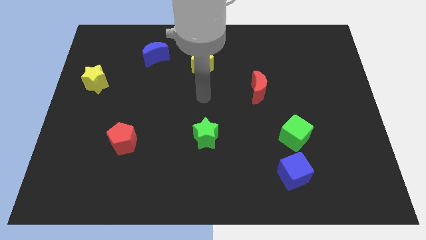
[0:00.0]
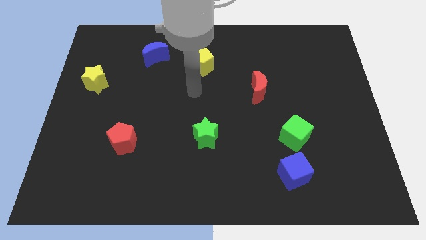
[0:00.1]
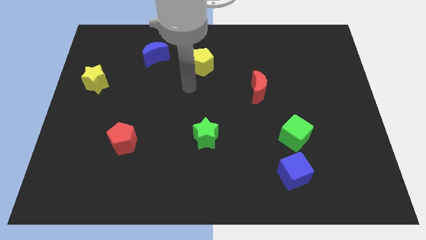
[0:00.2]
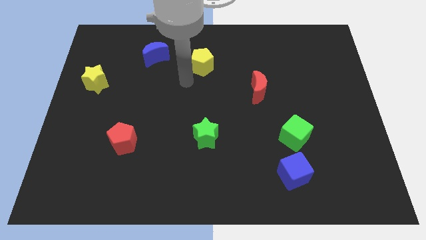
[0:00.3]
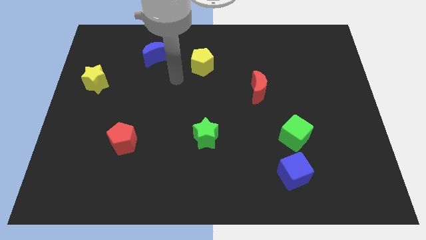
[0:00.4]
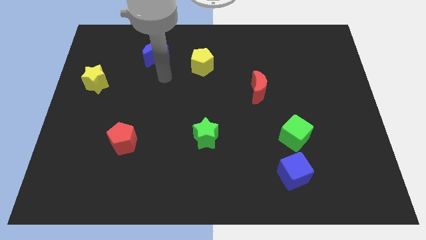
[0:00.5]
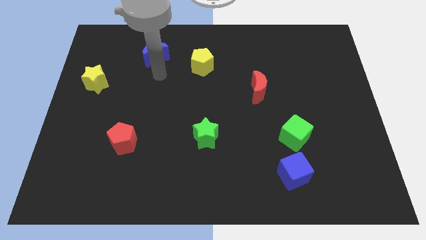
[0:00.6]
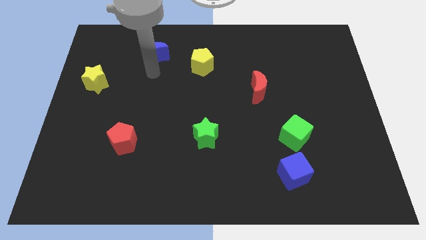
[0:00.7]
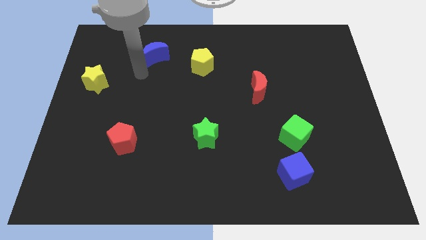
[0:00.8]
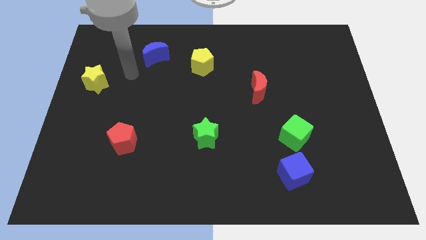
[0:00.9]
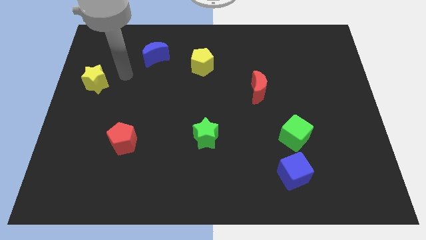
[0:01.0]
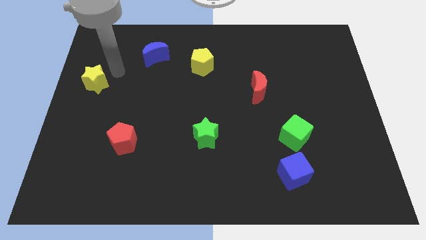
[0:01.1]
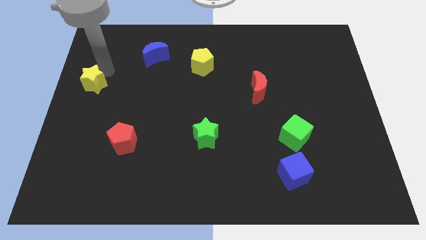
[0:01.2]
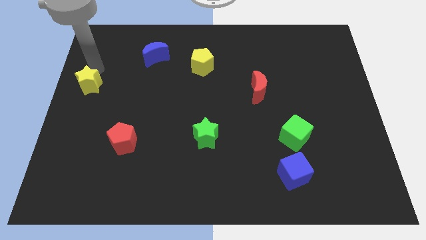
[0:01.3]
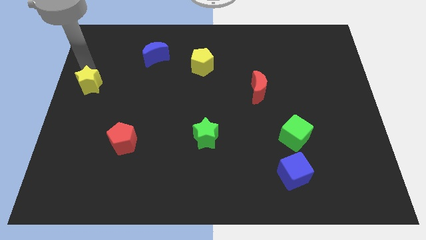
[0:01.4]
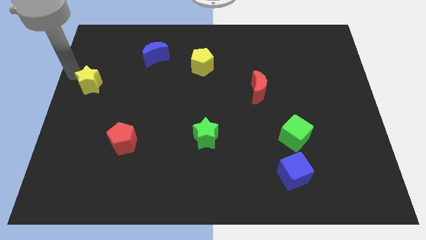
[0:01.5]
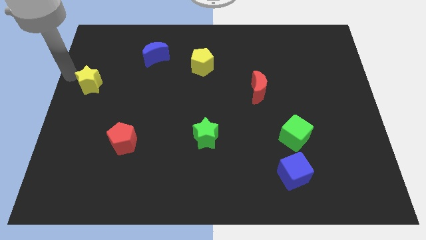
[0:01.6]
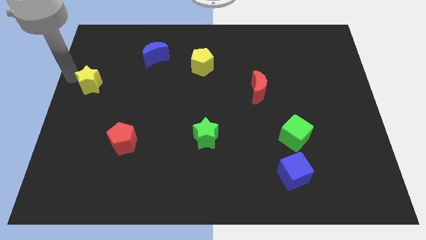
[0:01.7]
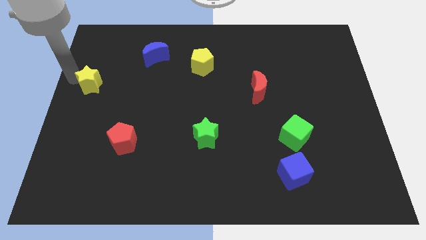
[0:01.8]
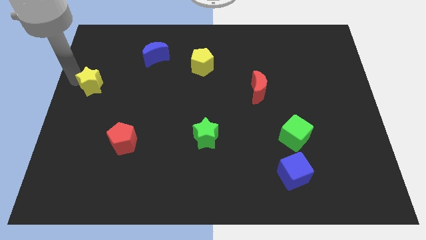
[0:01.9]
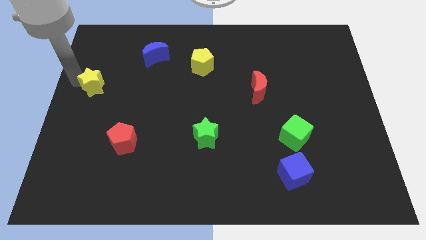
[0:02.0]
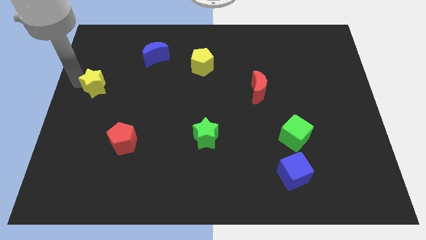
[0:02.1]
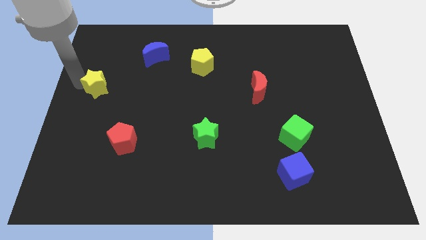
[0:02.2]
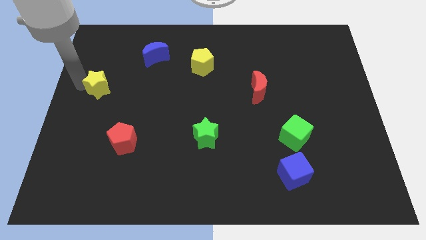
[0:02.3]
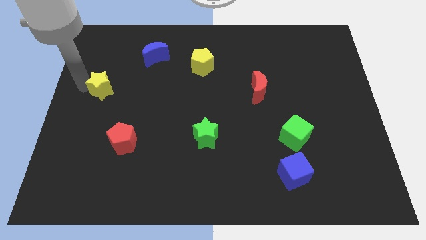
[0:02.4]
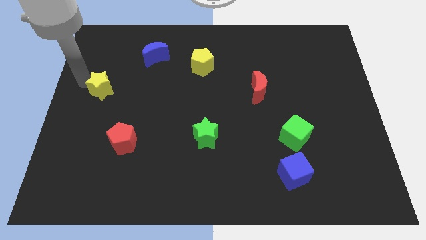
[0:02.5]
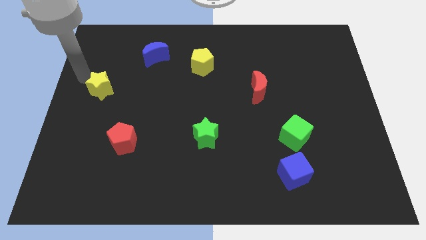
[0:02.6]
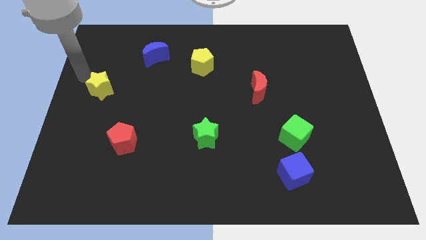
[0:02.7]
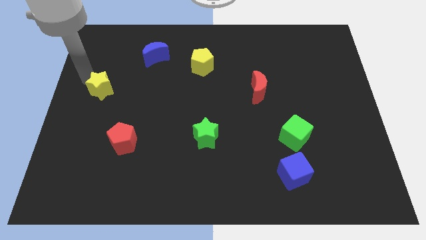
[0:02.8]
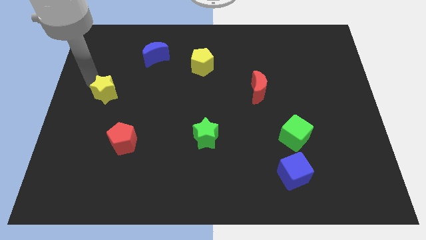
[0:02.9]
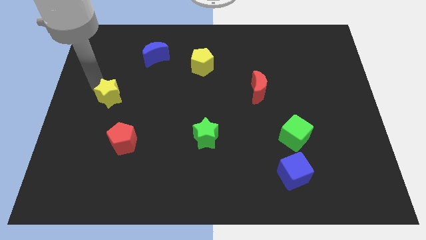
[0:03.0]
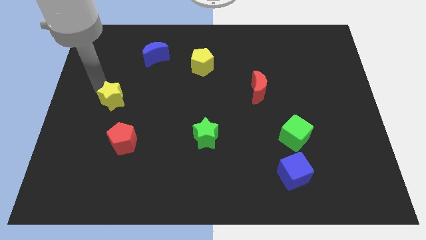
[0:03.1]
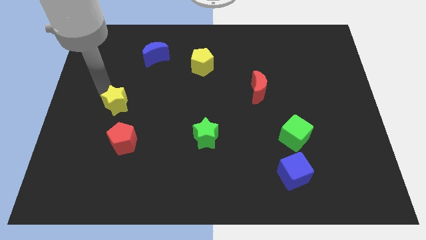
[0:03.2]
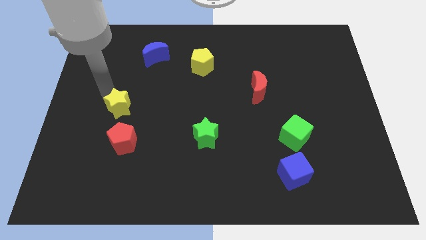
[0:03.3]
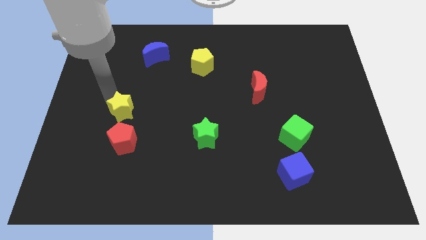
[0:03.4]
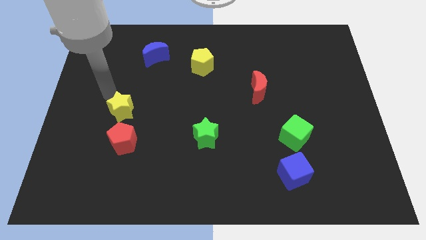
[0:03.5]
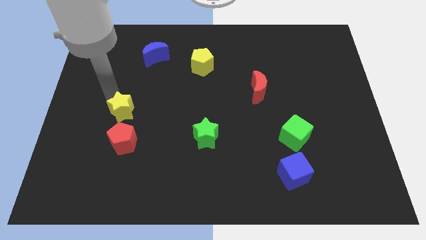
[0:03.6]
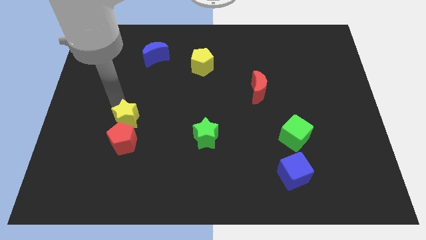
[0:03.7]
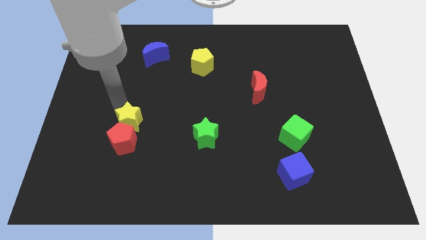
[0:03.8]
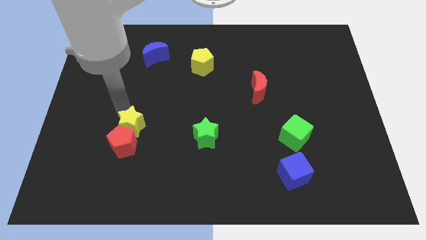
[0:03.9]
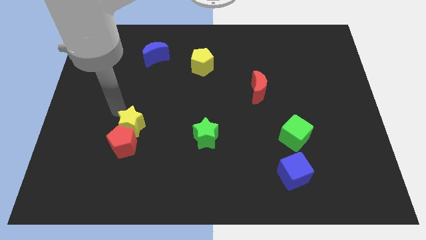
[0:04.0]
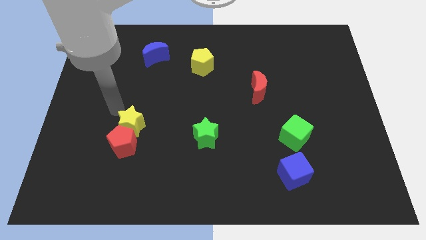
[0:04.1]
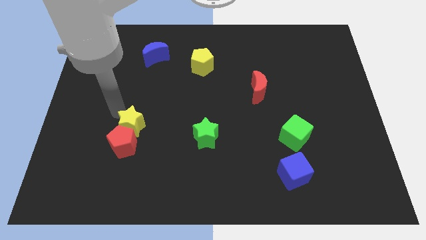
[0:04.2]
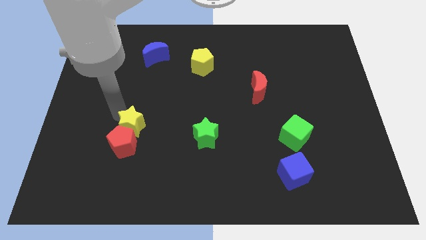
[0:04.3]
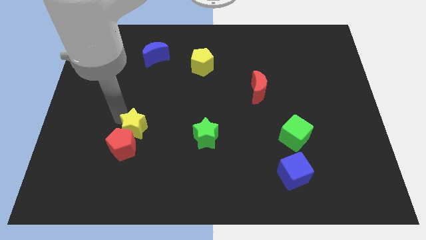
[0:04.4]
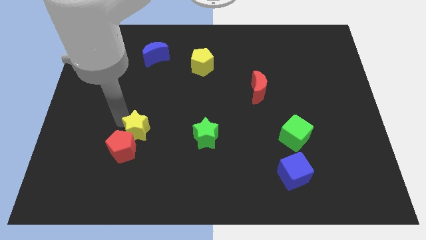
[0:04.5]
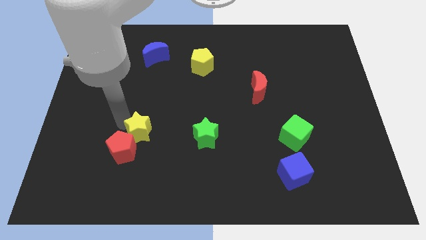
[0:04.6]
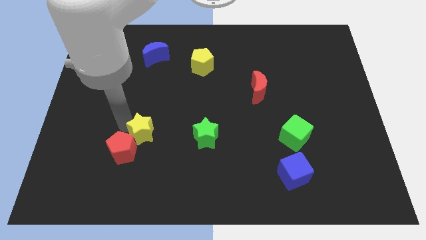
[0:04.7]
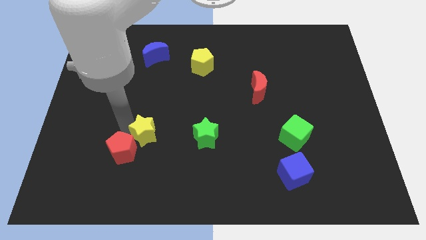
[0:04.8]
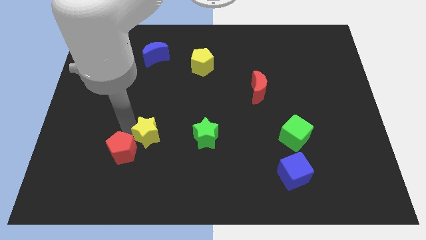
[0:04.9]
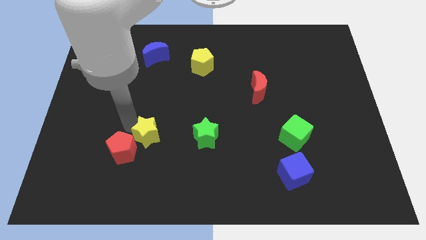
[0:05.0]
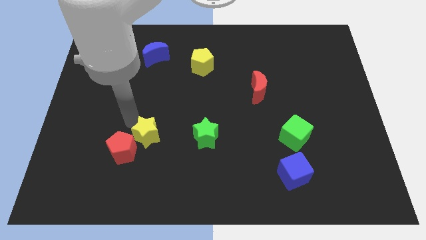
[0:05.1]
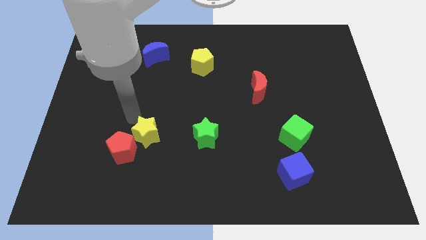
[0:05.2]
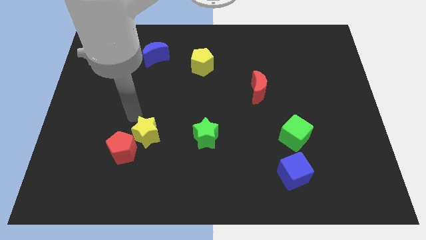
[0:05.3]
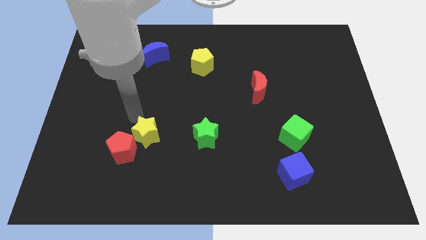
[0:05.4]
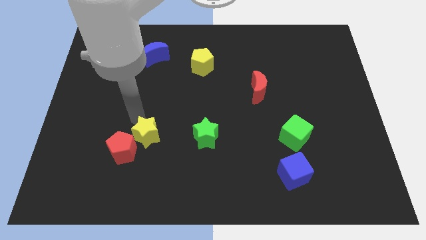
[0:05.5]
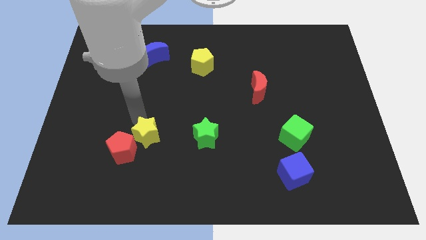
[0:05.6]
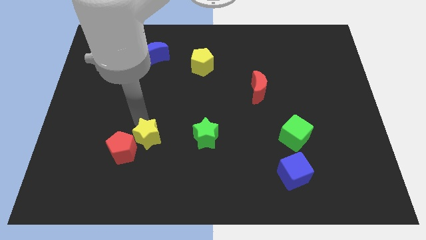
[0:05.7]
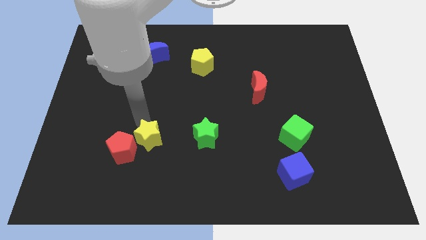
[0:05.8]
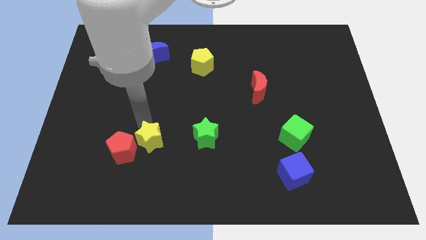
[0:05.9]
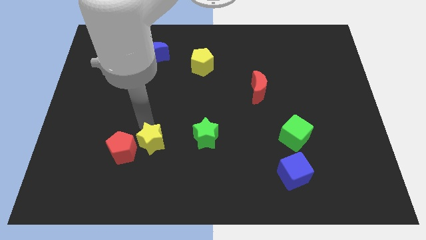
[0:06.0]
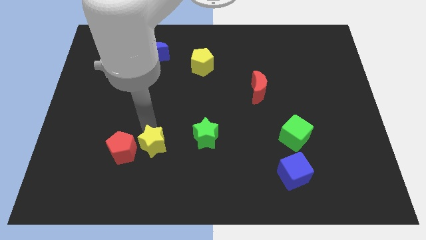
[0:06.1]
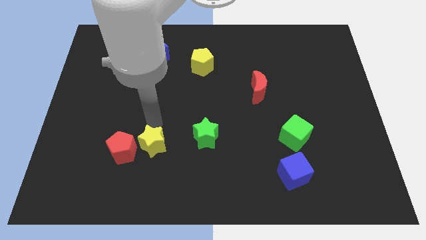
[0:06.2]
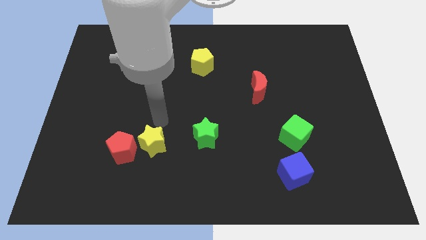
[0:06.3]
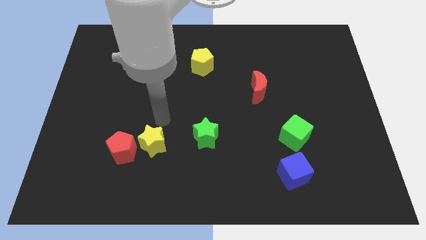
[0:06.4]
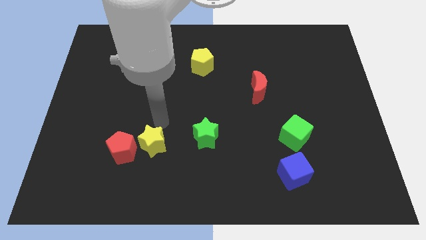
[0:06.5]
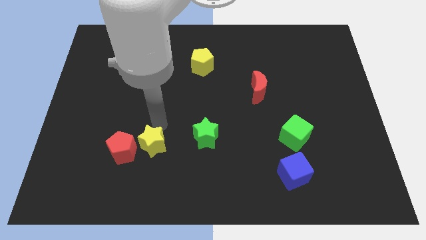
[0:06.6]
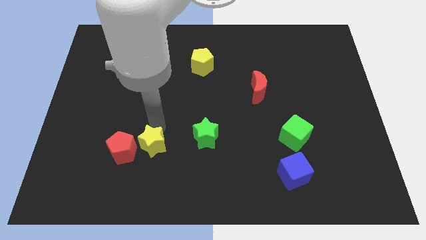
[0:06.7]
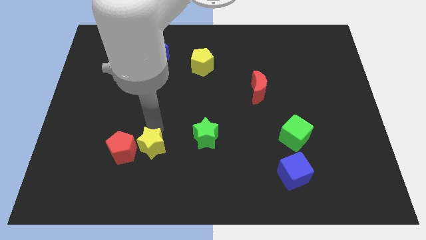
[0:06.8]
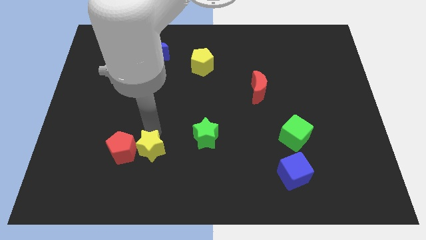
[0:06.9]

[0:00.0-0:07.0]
slide the yellow star to the bottom right of the red pentagon
